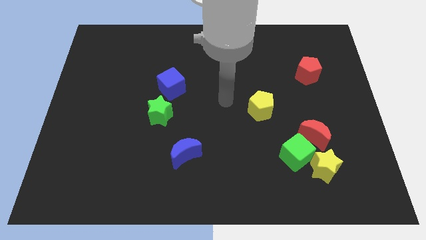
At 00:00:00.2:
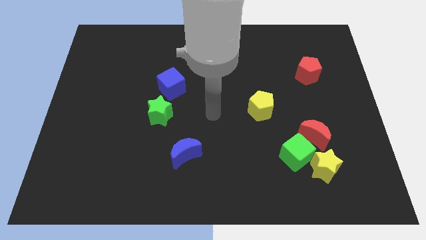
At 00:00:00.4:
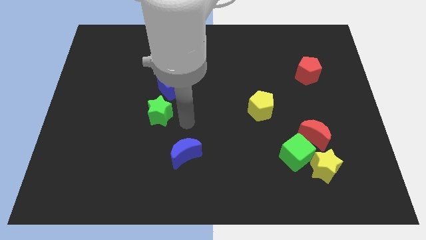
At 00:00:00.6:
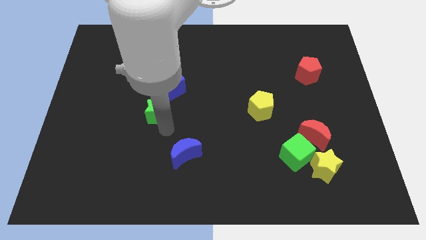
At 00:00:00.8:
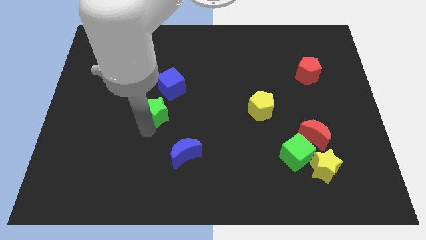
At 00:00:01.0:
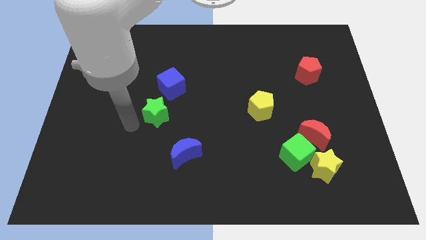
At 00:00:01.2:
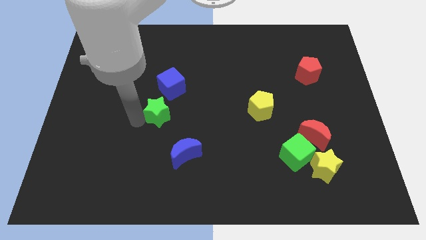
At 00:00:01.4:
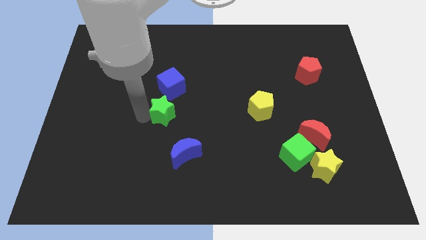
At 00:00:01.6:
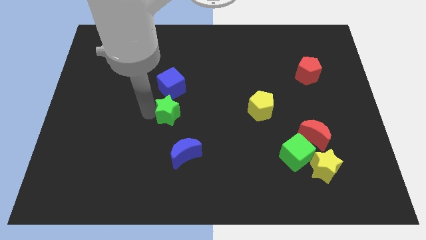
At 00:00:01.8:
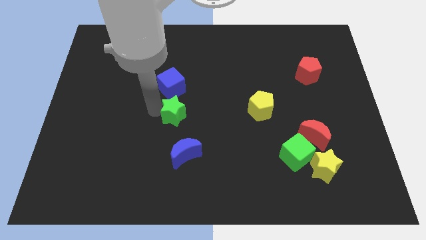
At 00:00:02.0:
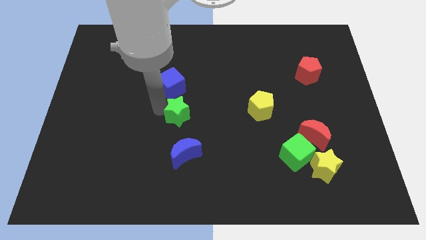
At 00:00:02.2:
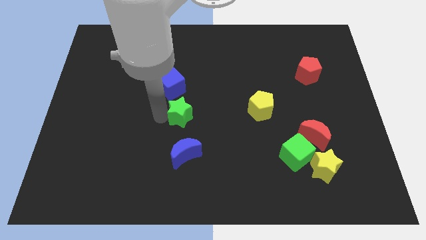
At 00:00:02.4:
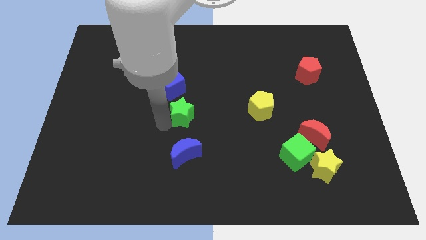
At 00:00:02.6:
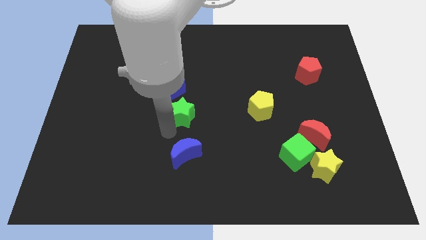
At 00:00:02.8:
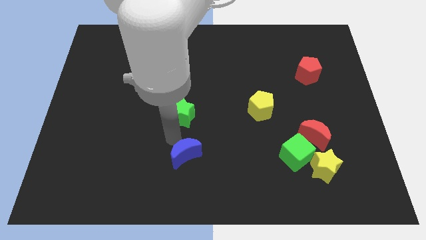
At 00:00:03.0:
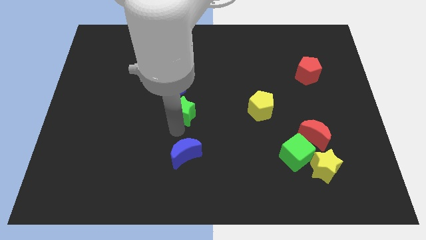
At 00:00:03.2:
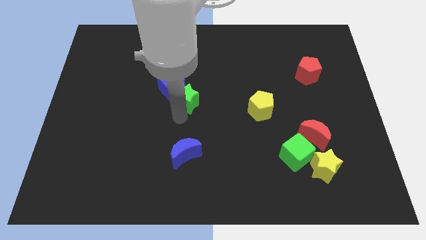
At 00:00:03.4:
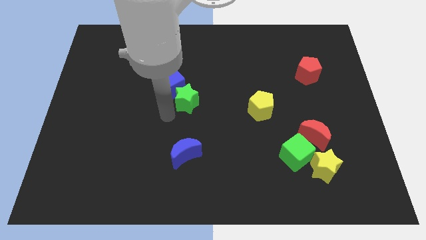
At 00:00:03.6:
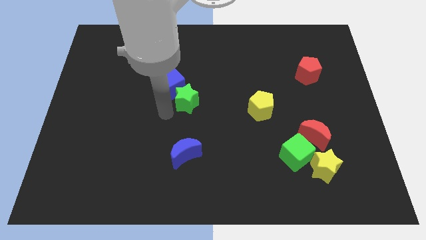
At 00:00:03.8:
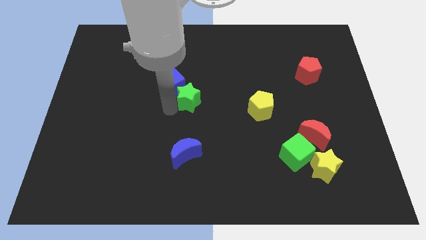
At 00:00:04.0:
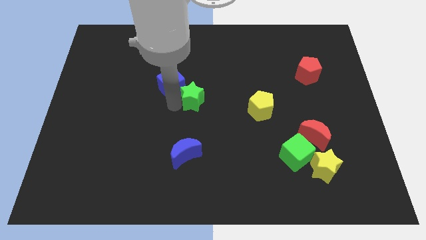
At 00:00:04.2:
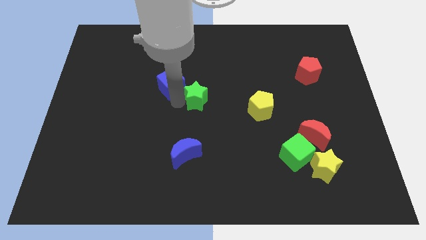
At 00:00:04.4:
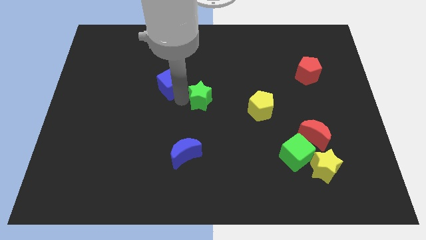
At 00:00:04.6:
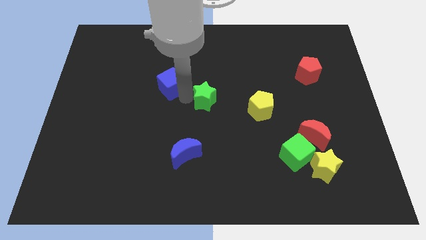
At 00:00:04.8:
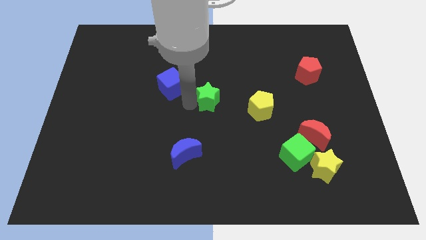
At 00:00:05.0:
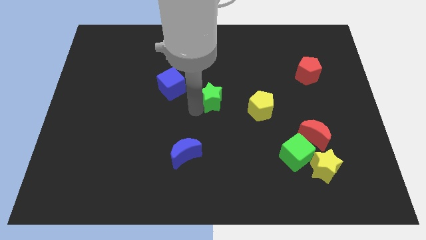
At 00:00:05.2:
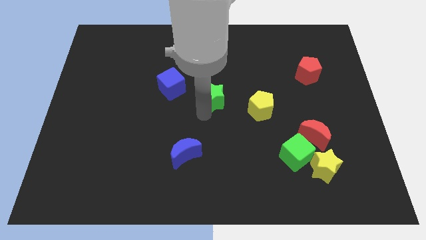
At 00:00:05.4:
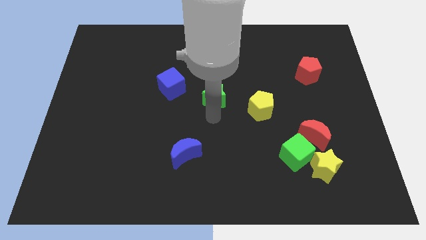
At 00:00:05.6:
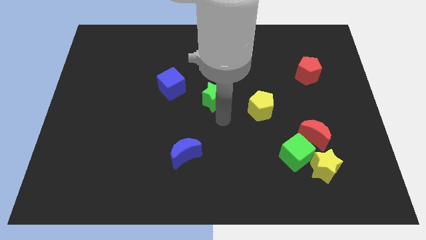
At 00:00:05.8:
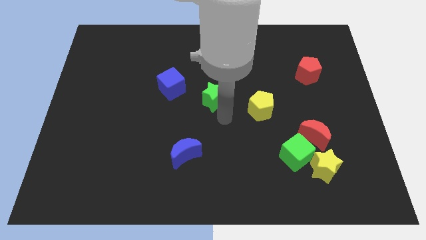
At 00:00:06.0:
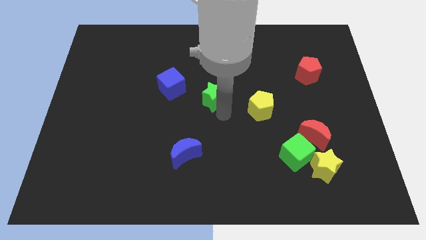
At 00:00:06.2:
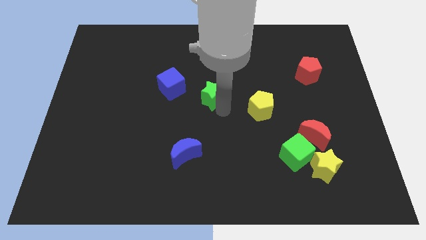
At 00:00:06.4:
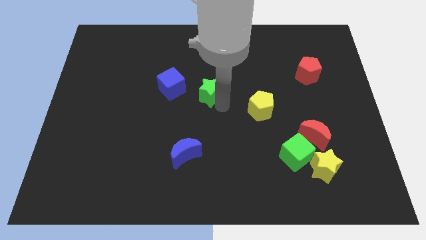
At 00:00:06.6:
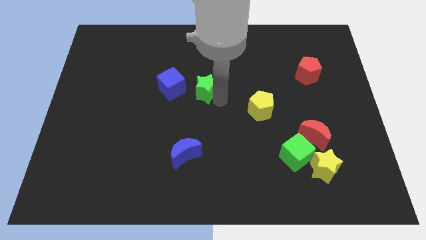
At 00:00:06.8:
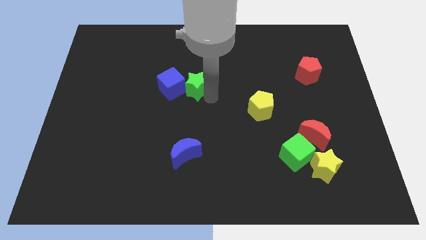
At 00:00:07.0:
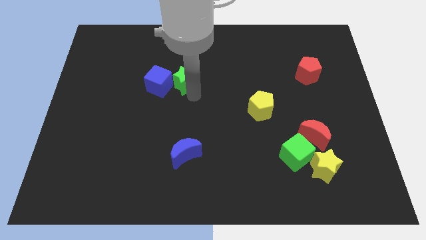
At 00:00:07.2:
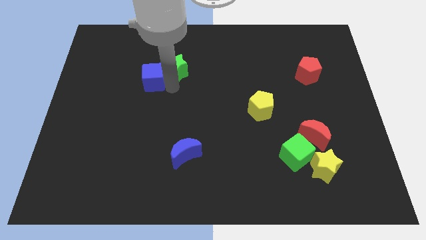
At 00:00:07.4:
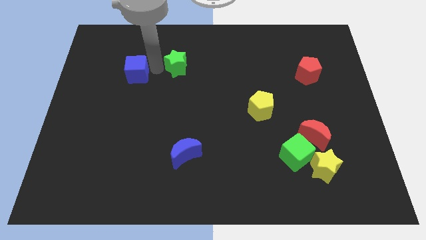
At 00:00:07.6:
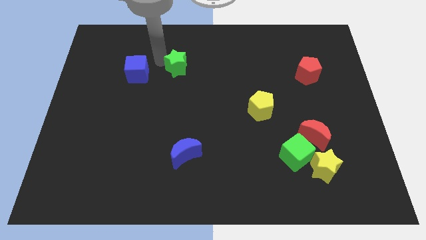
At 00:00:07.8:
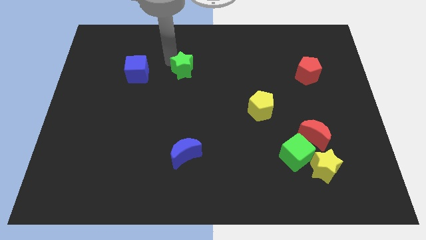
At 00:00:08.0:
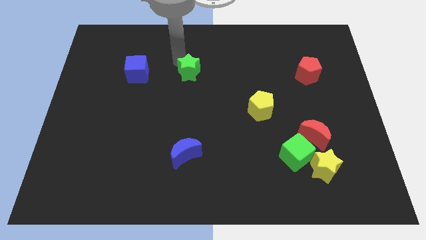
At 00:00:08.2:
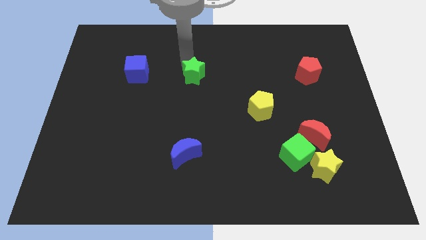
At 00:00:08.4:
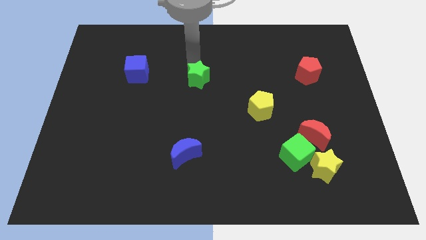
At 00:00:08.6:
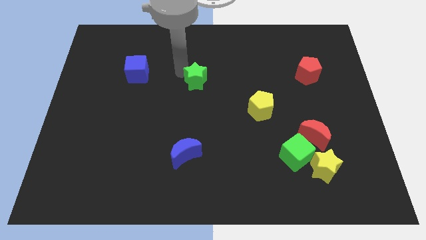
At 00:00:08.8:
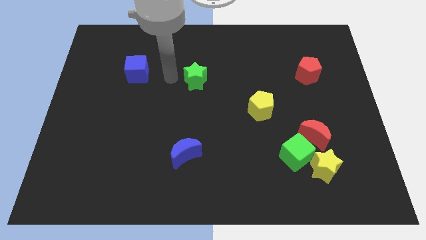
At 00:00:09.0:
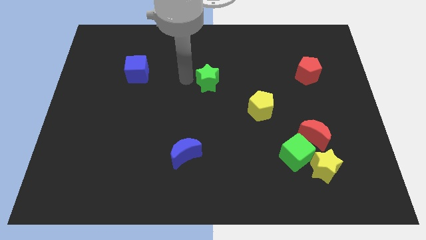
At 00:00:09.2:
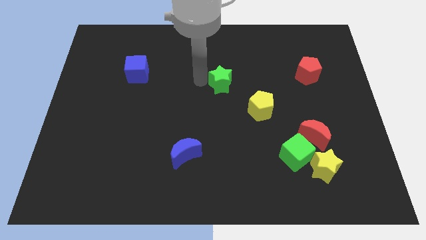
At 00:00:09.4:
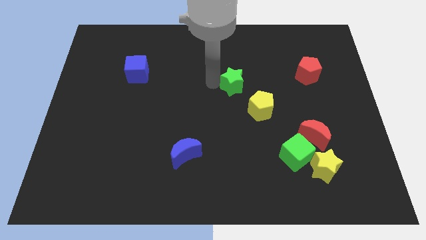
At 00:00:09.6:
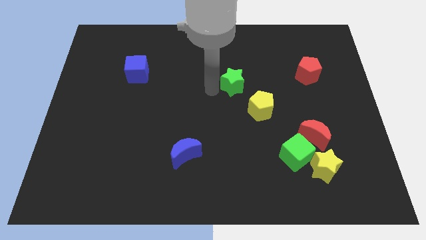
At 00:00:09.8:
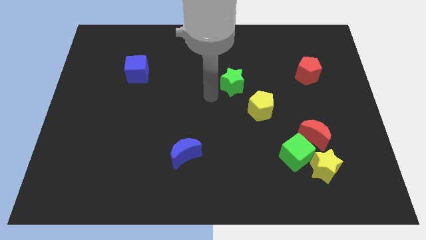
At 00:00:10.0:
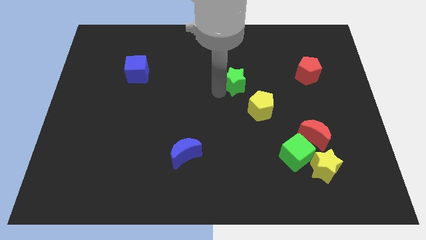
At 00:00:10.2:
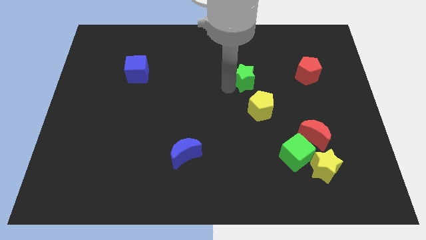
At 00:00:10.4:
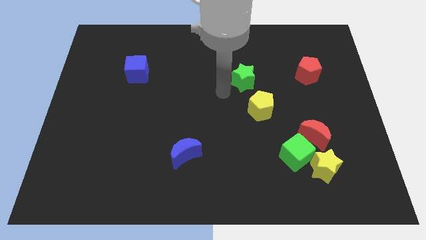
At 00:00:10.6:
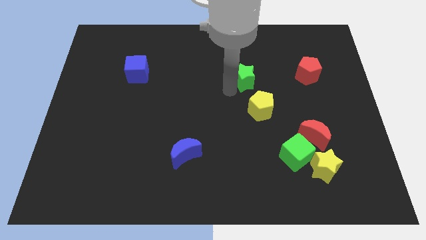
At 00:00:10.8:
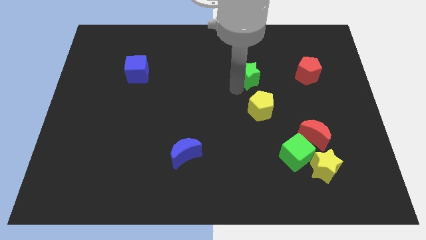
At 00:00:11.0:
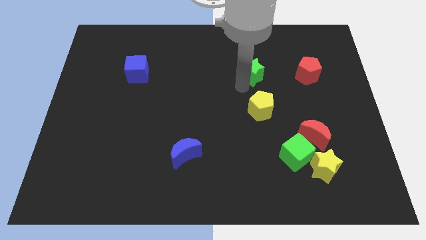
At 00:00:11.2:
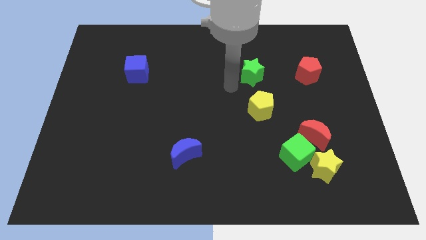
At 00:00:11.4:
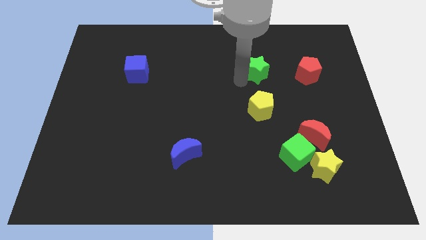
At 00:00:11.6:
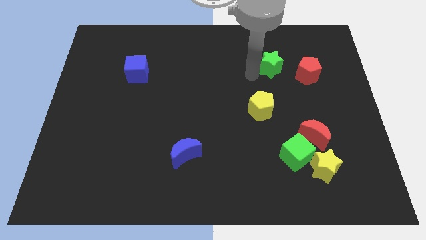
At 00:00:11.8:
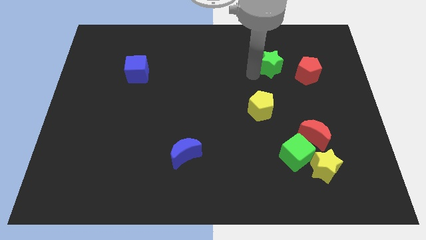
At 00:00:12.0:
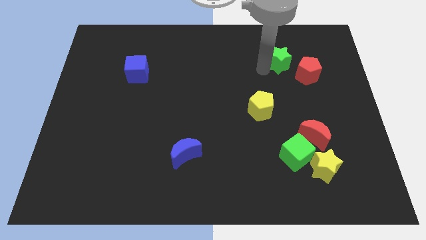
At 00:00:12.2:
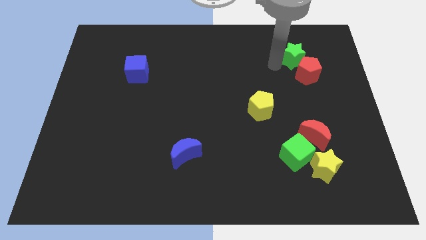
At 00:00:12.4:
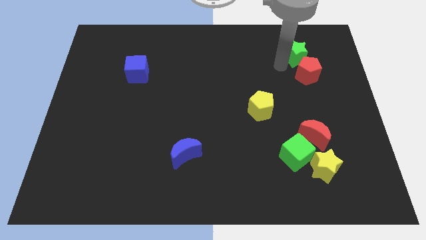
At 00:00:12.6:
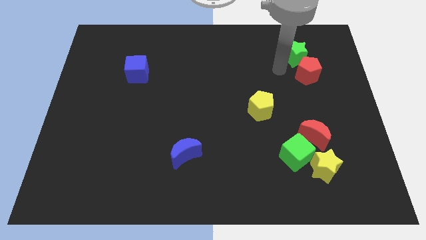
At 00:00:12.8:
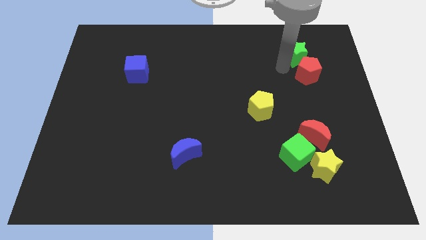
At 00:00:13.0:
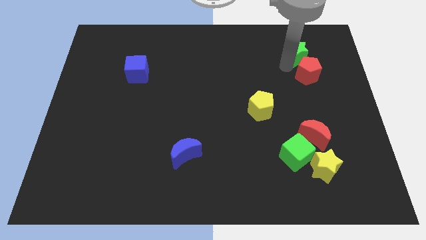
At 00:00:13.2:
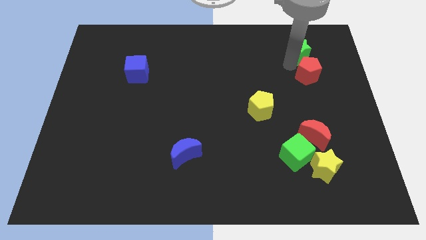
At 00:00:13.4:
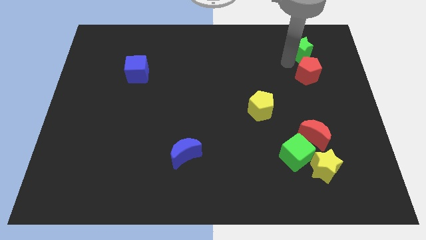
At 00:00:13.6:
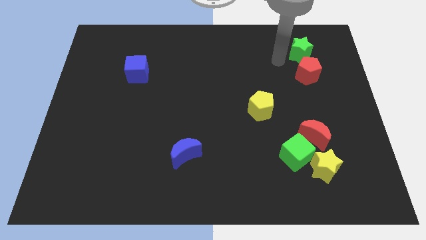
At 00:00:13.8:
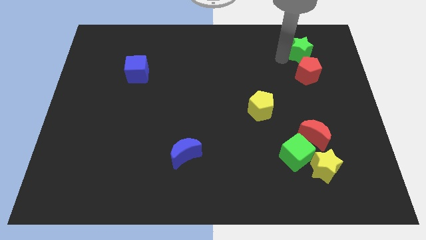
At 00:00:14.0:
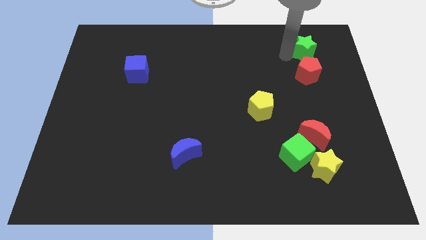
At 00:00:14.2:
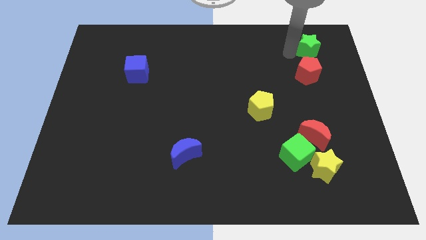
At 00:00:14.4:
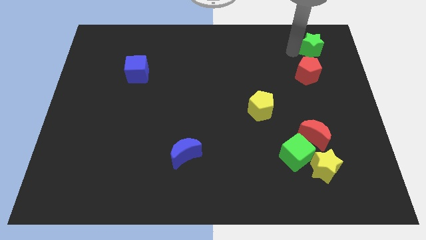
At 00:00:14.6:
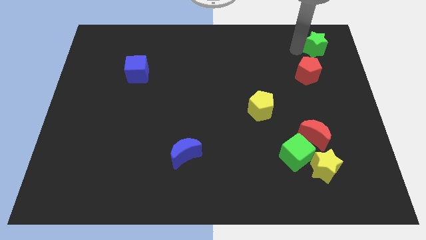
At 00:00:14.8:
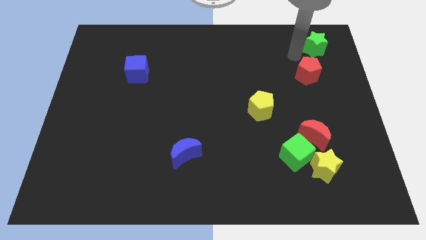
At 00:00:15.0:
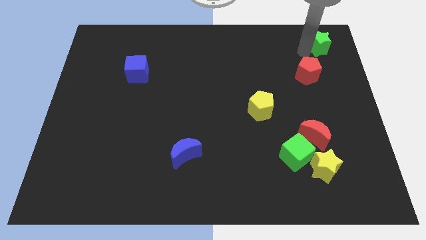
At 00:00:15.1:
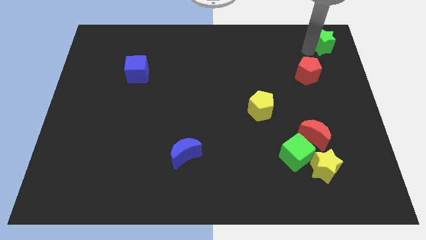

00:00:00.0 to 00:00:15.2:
move the green star to the top right of the board
